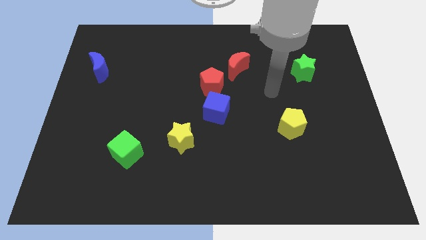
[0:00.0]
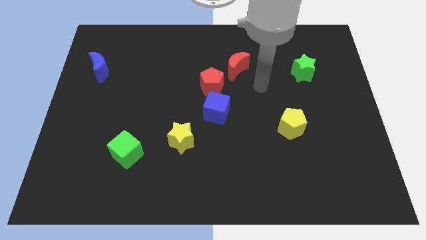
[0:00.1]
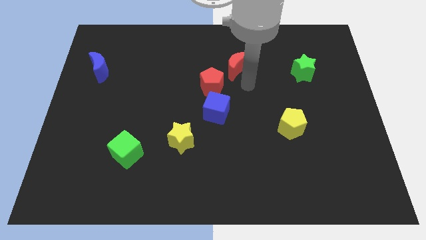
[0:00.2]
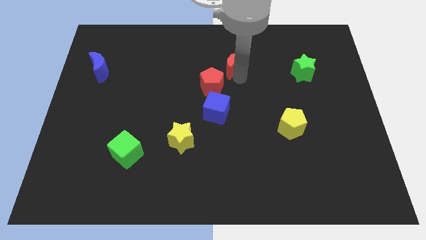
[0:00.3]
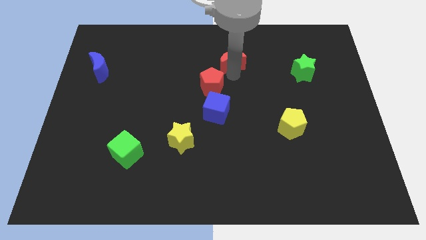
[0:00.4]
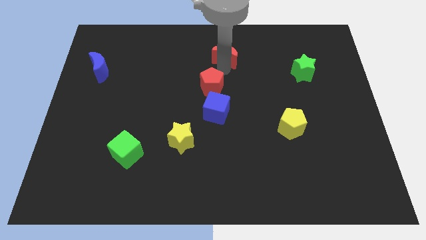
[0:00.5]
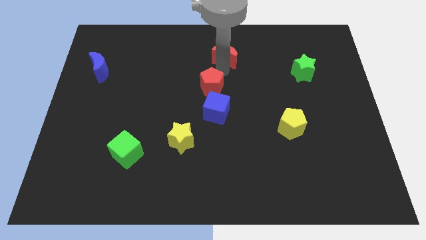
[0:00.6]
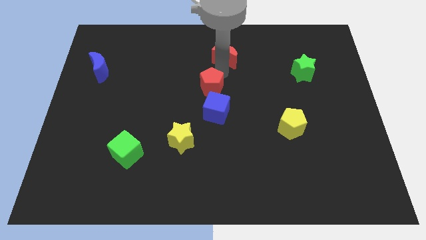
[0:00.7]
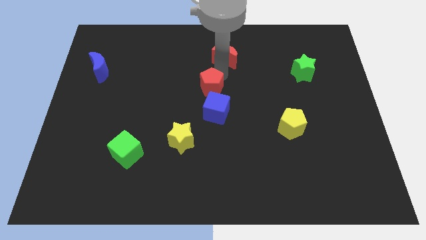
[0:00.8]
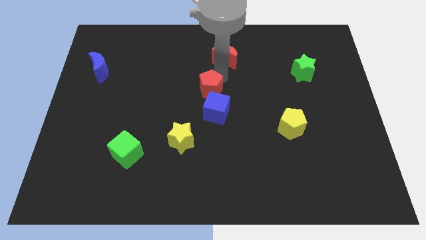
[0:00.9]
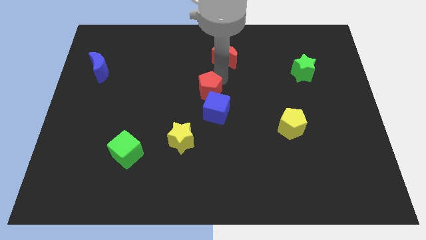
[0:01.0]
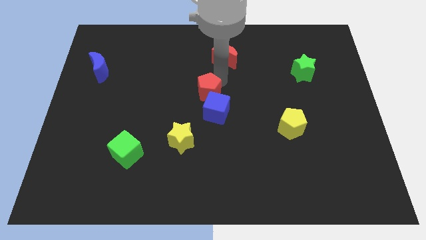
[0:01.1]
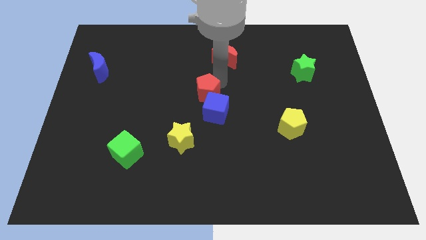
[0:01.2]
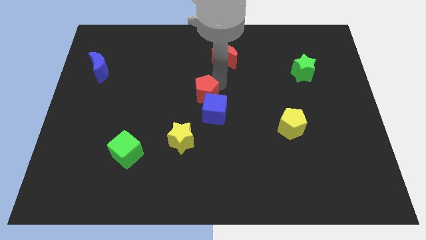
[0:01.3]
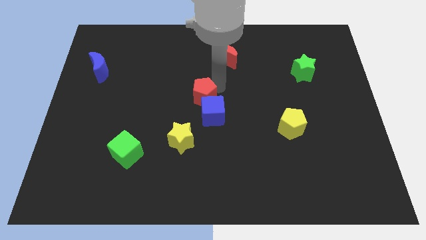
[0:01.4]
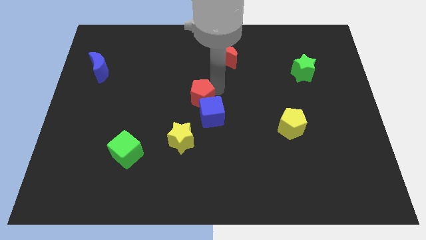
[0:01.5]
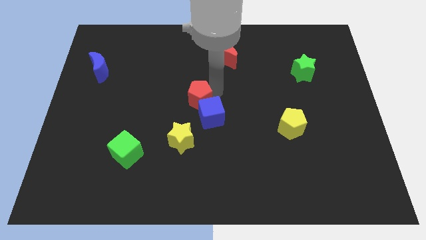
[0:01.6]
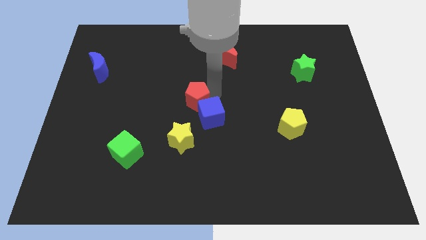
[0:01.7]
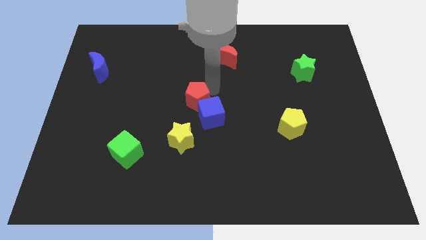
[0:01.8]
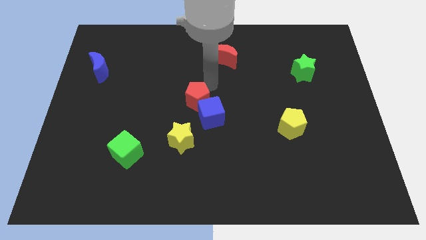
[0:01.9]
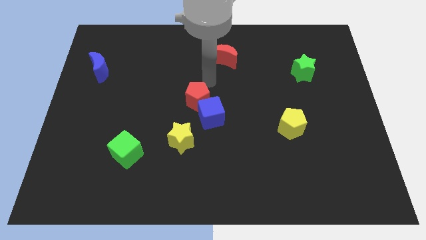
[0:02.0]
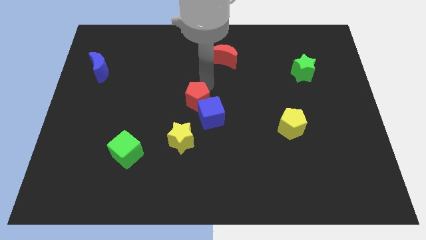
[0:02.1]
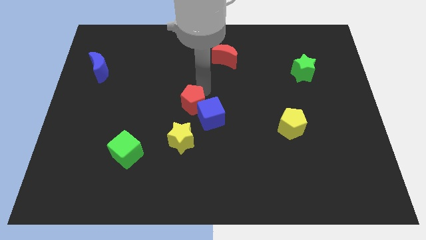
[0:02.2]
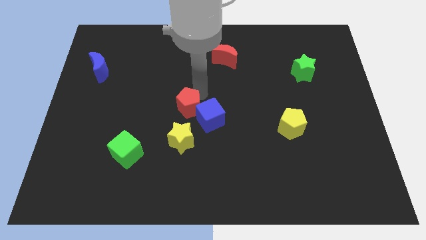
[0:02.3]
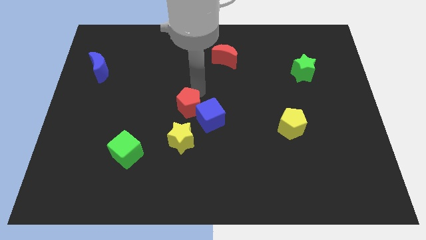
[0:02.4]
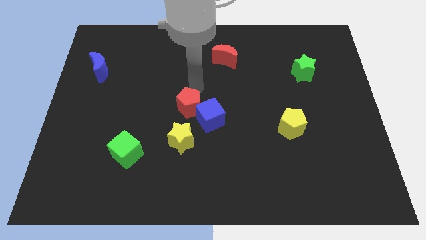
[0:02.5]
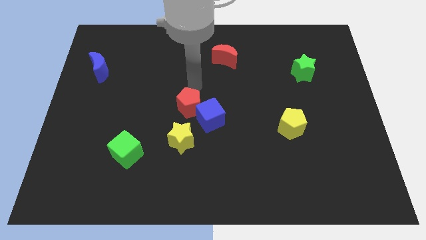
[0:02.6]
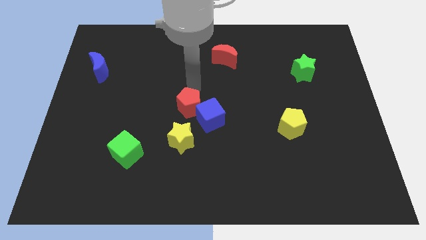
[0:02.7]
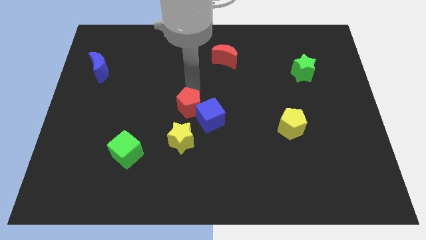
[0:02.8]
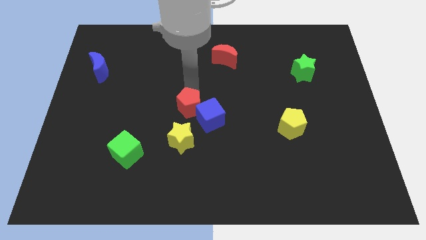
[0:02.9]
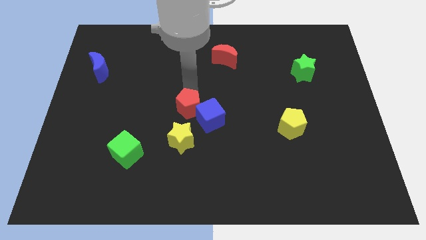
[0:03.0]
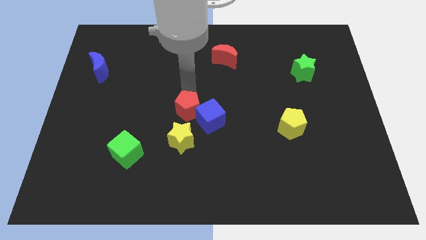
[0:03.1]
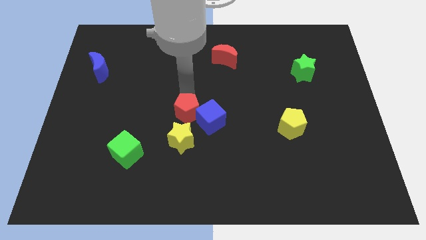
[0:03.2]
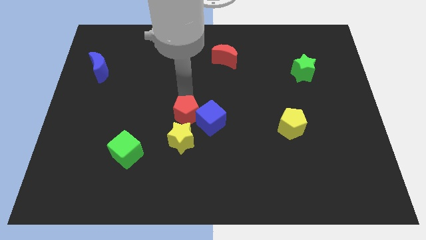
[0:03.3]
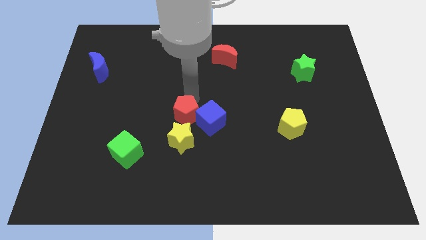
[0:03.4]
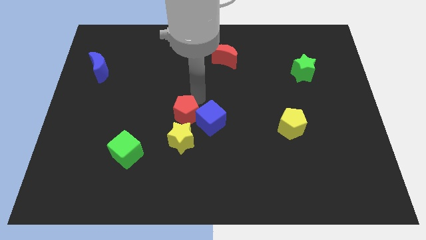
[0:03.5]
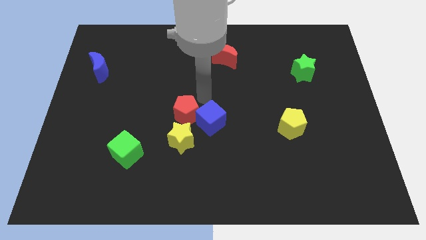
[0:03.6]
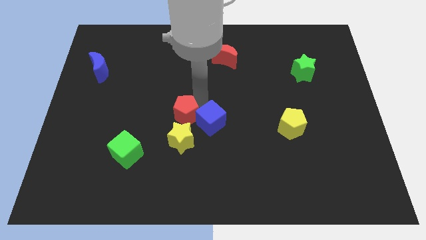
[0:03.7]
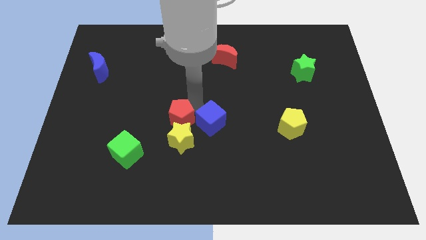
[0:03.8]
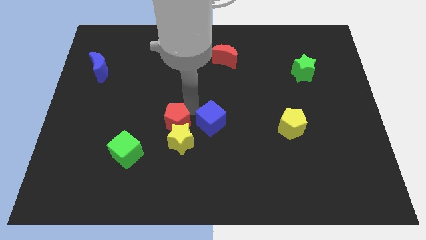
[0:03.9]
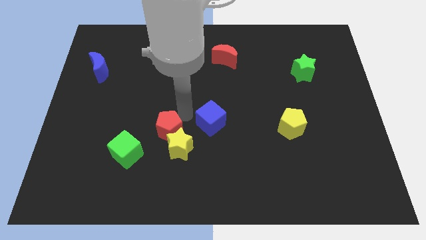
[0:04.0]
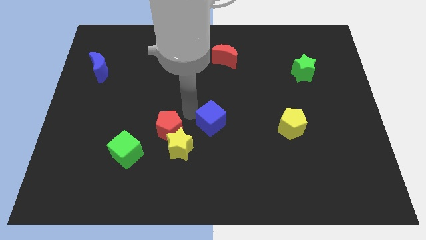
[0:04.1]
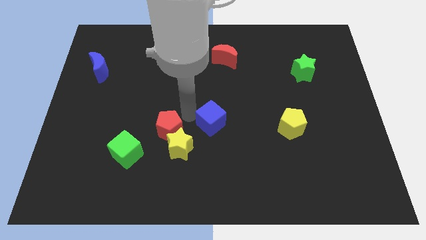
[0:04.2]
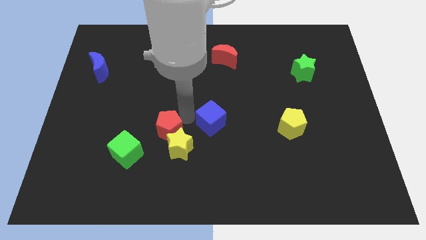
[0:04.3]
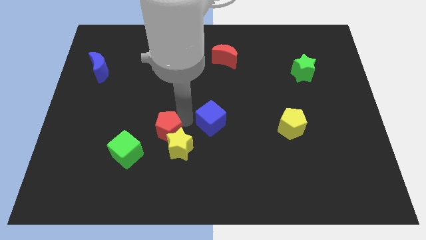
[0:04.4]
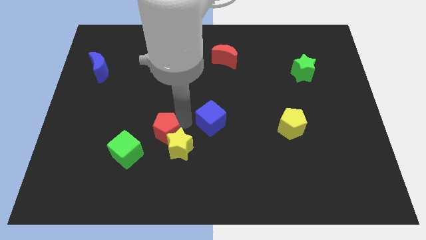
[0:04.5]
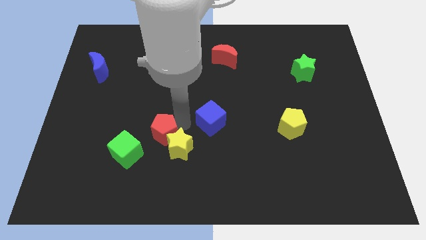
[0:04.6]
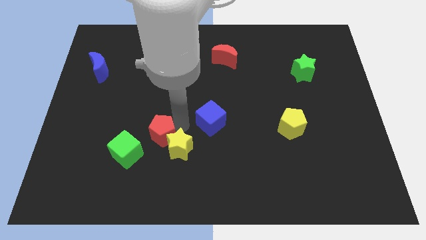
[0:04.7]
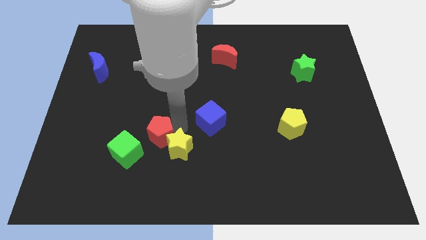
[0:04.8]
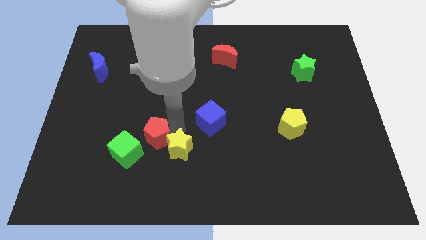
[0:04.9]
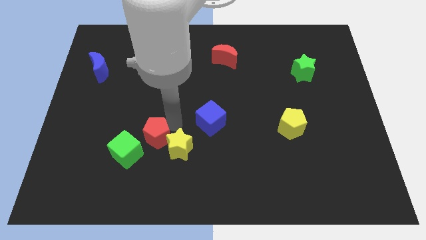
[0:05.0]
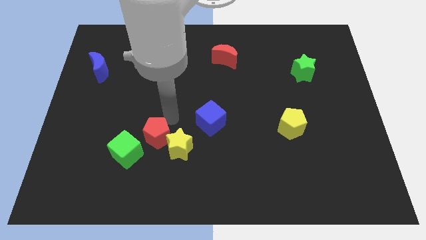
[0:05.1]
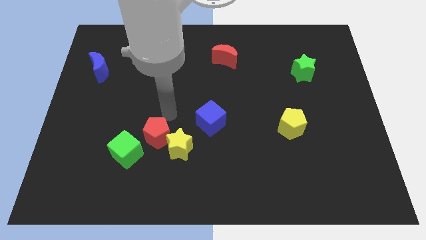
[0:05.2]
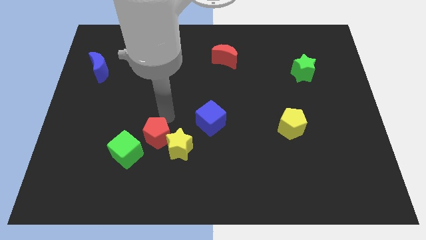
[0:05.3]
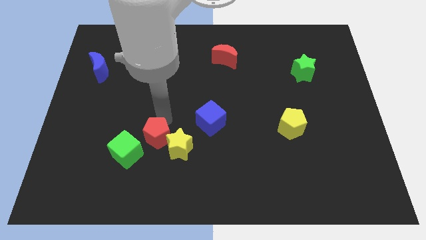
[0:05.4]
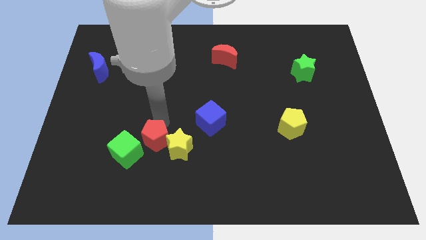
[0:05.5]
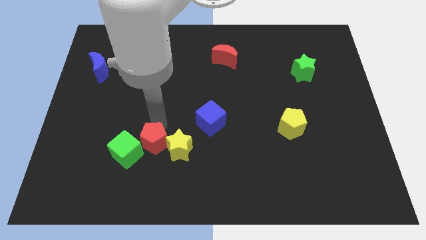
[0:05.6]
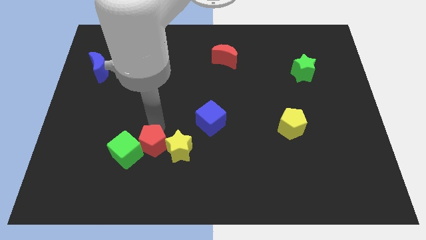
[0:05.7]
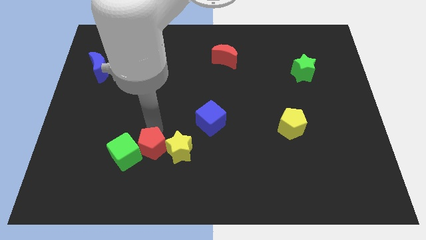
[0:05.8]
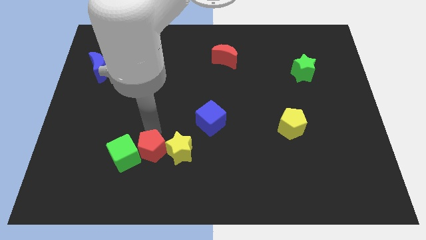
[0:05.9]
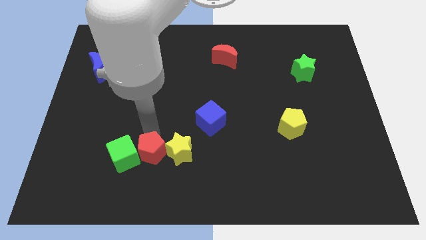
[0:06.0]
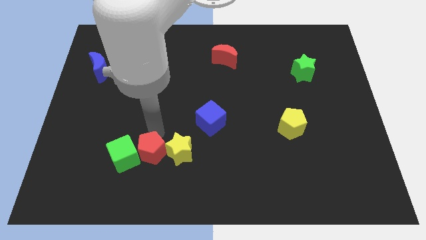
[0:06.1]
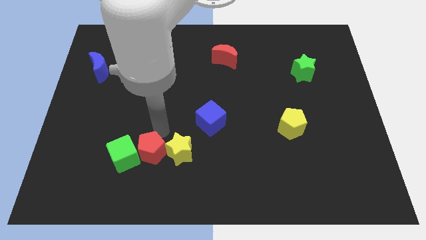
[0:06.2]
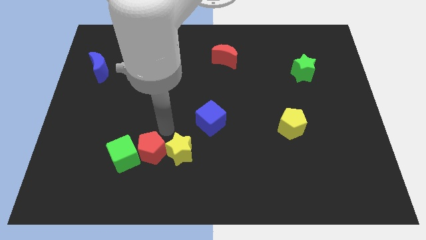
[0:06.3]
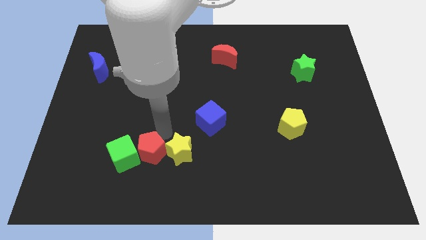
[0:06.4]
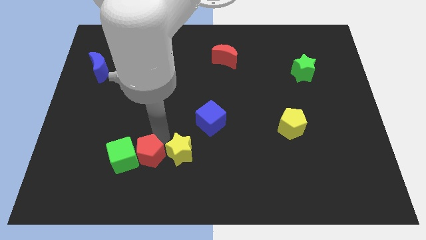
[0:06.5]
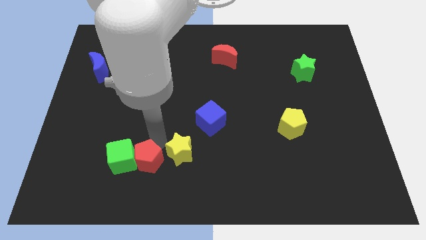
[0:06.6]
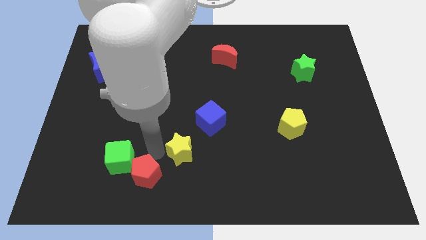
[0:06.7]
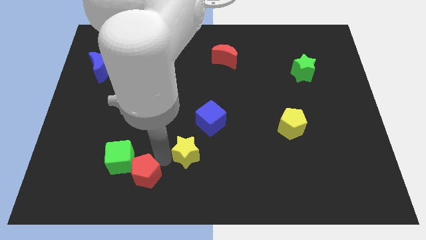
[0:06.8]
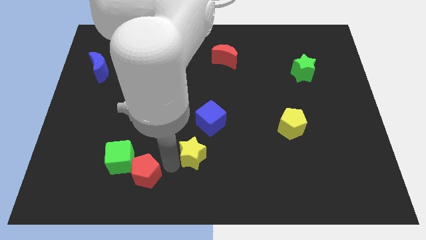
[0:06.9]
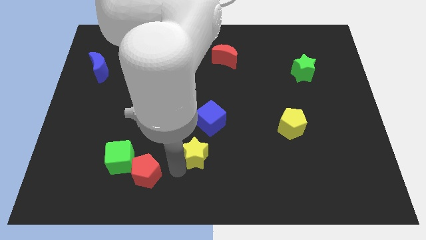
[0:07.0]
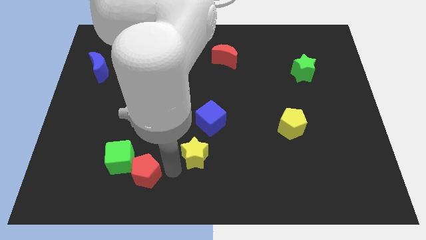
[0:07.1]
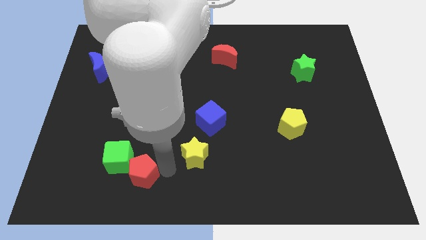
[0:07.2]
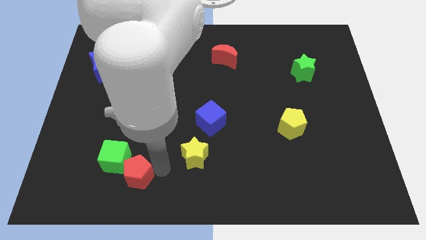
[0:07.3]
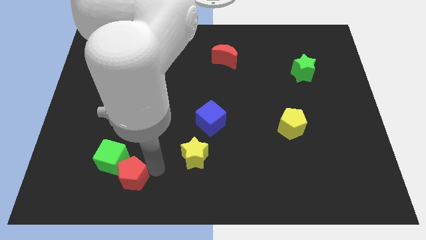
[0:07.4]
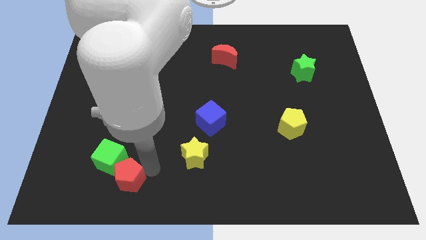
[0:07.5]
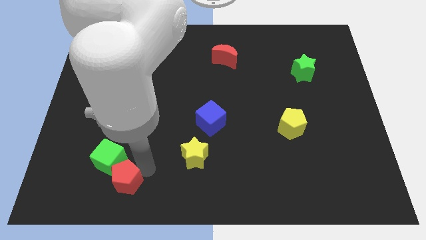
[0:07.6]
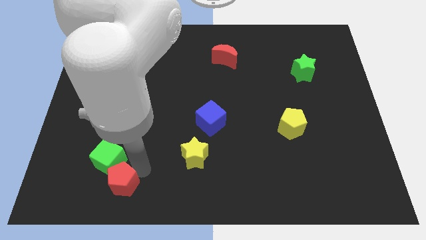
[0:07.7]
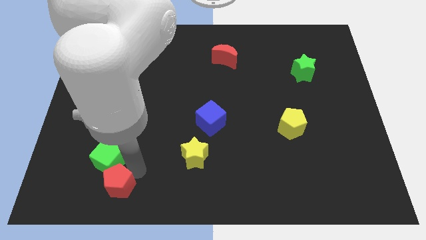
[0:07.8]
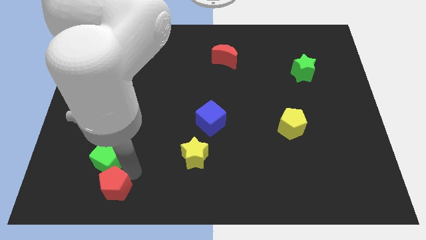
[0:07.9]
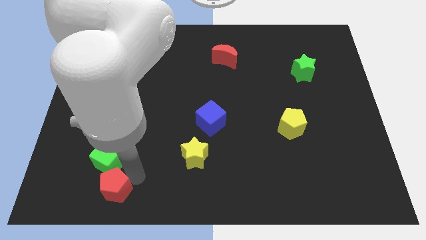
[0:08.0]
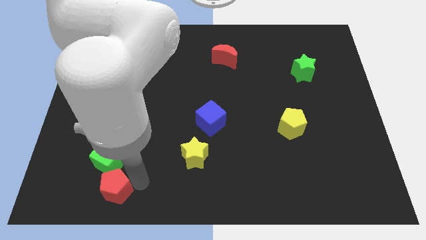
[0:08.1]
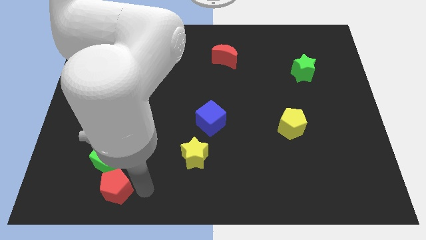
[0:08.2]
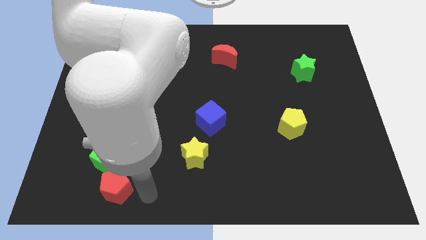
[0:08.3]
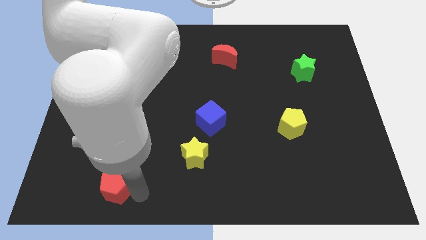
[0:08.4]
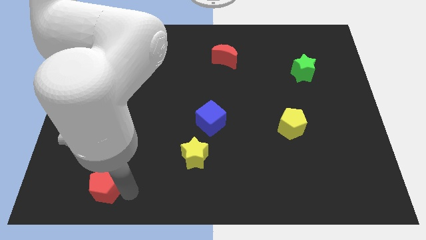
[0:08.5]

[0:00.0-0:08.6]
move the red pentagon to the bottom left of the green cube
